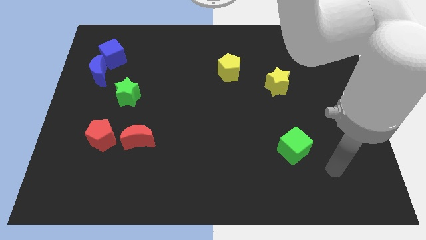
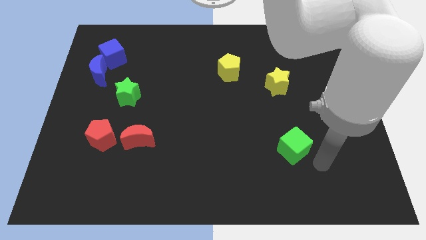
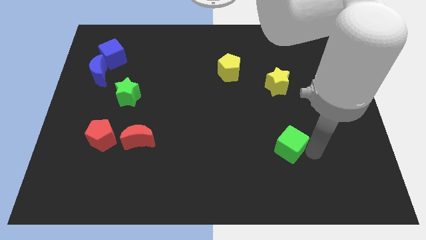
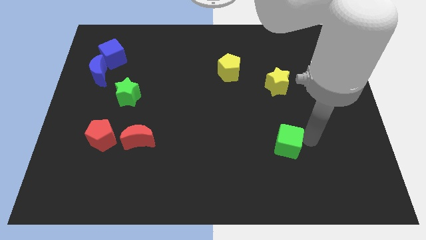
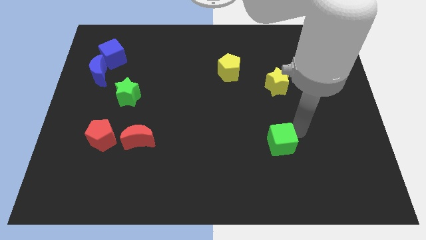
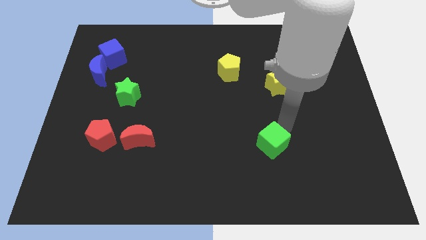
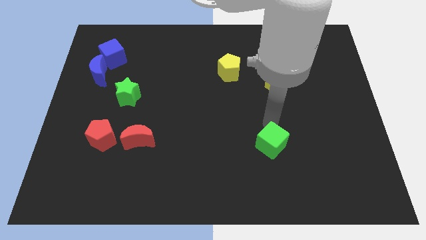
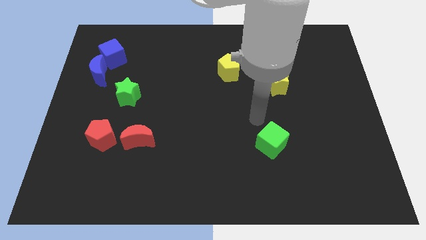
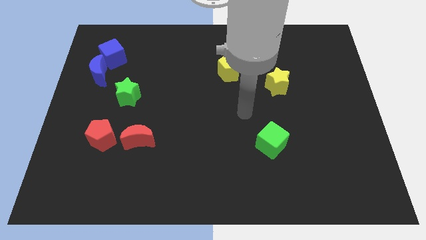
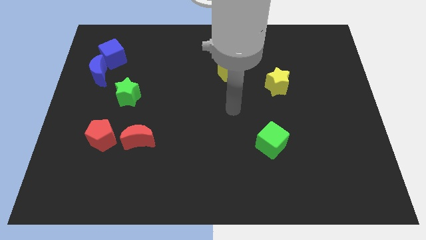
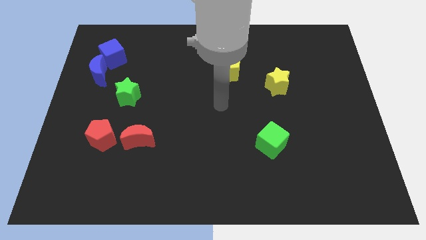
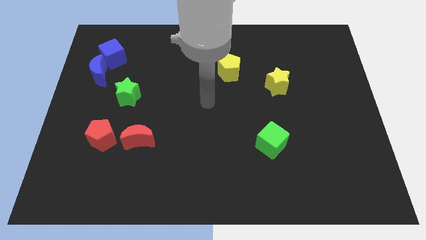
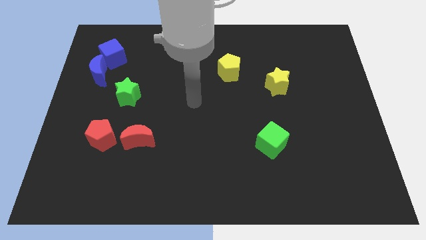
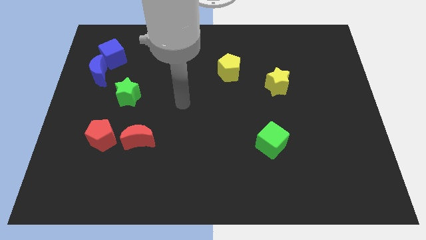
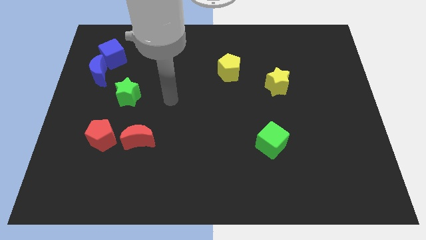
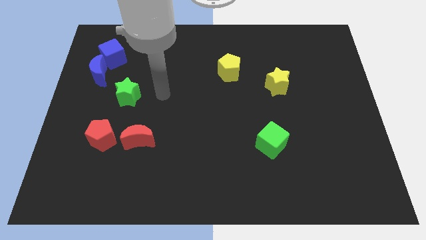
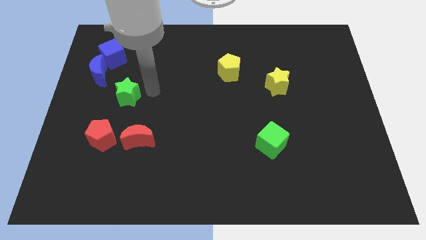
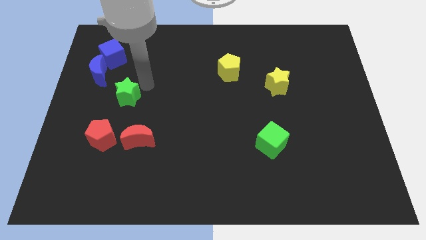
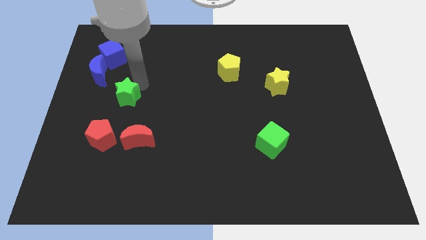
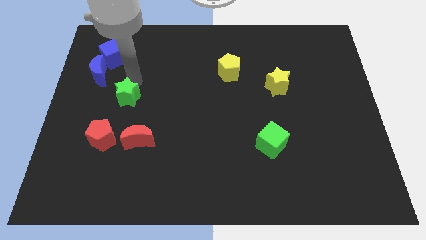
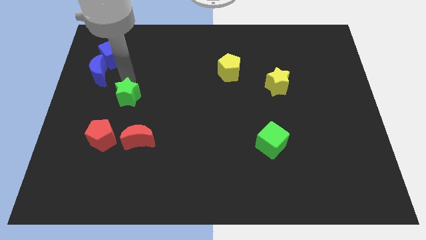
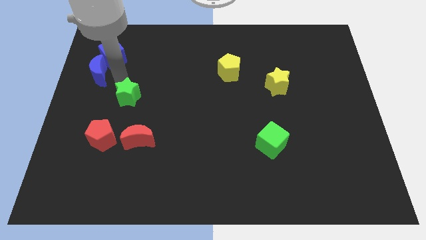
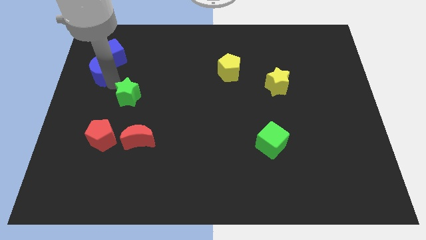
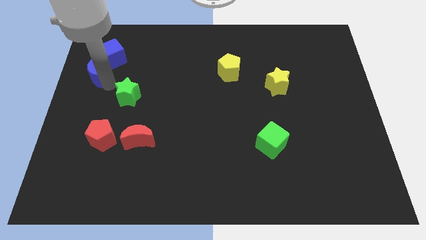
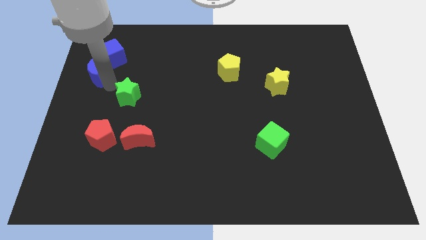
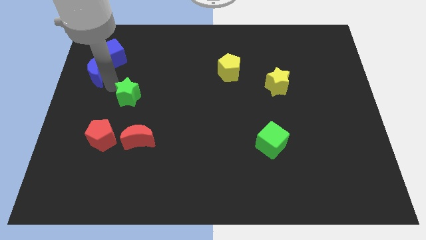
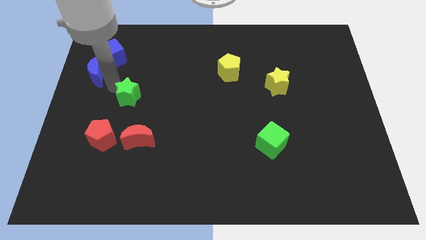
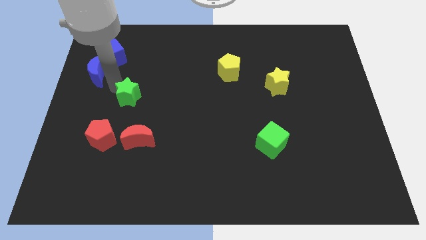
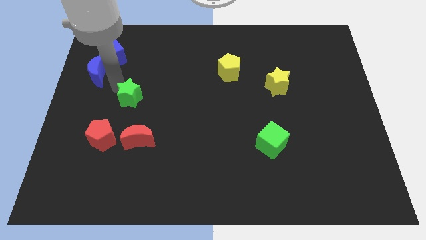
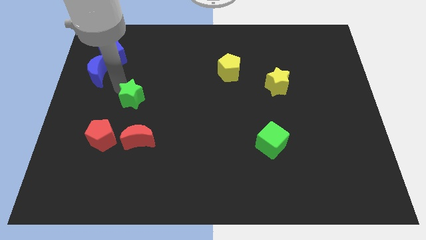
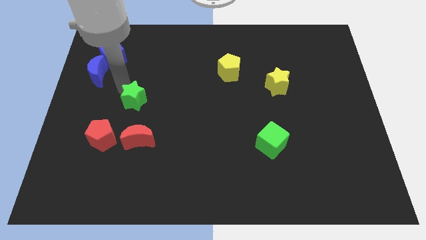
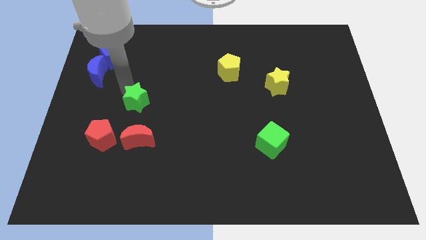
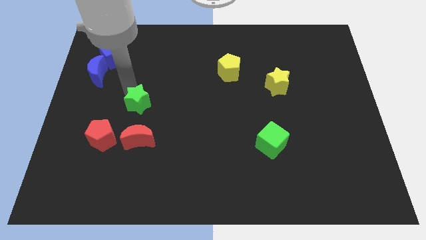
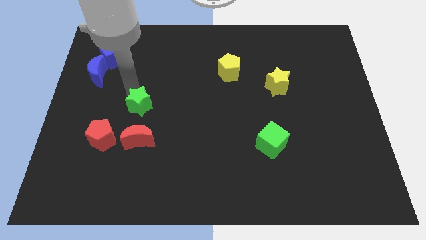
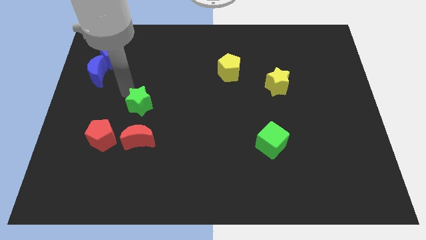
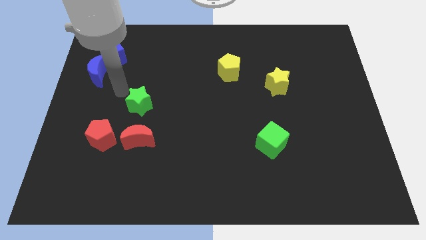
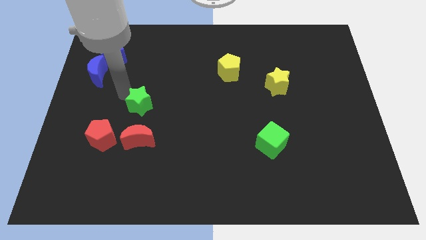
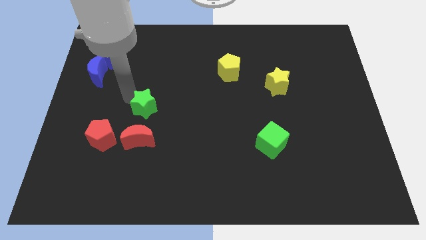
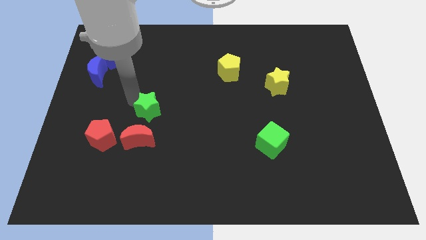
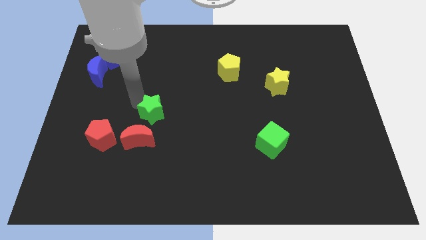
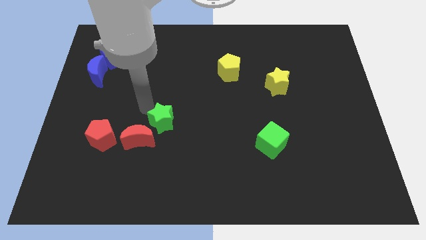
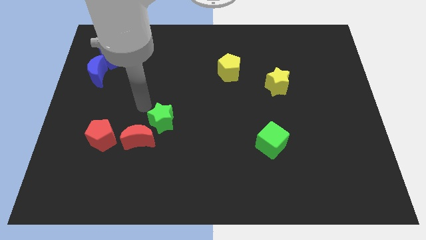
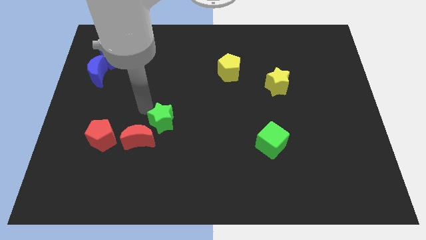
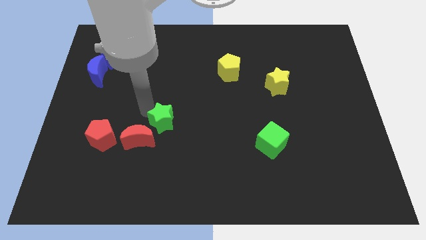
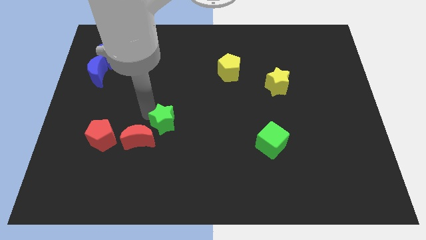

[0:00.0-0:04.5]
put the green star to the right of the red moon

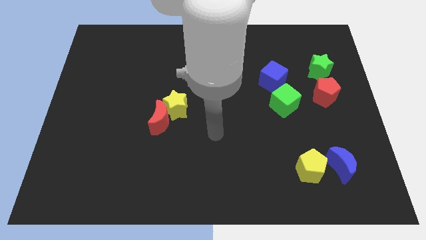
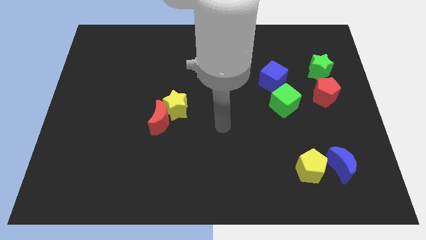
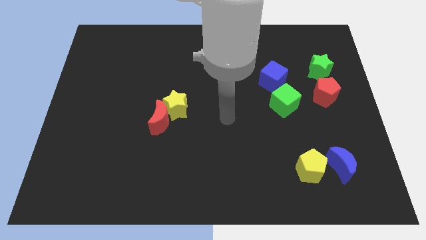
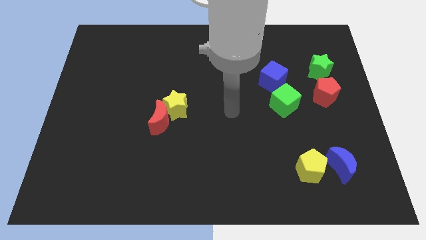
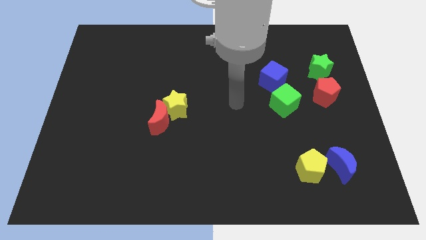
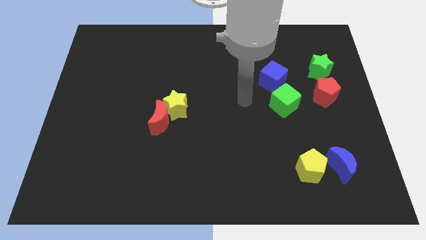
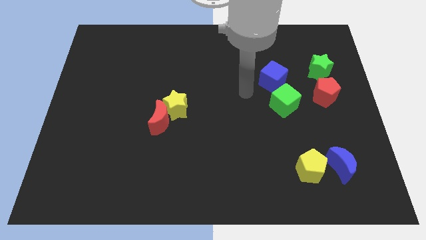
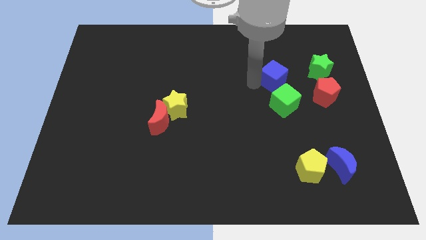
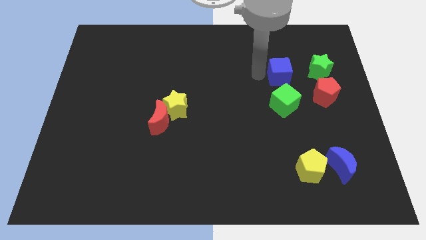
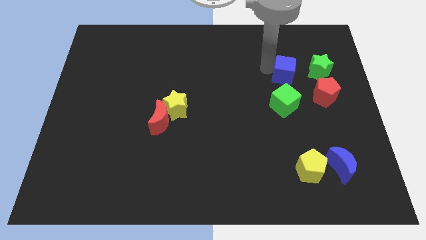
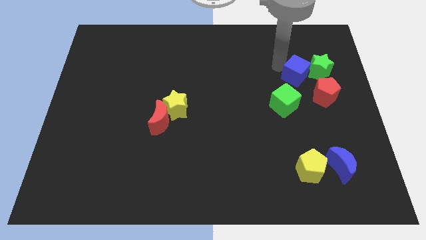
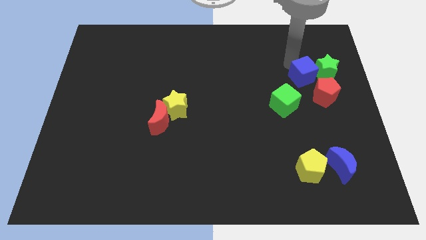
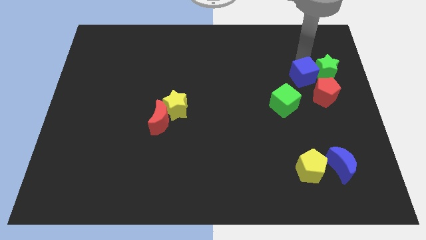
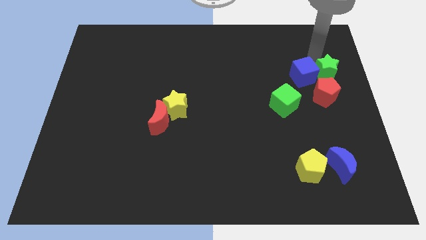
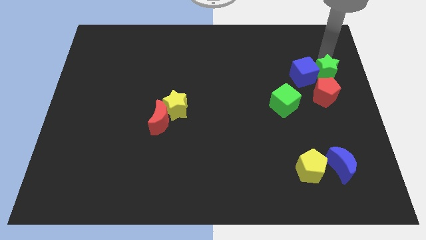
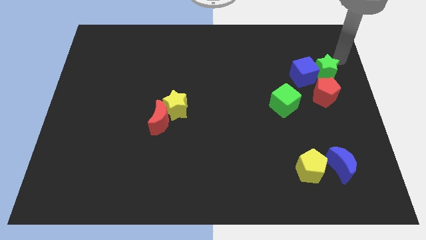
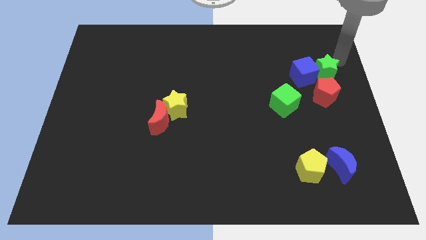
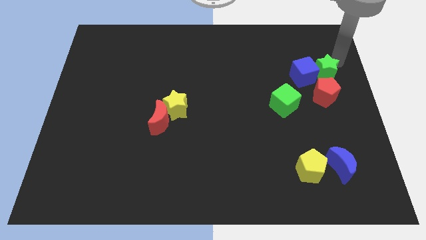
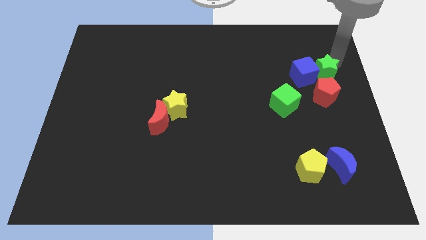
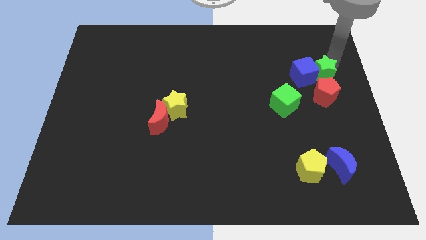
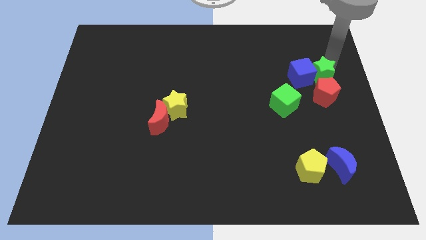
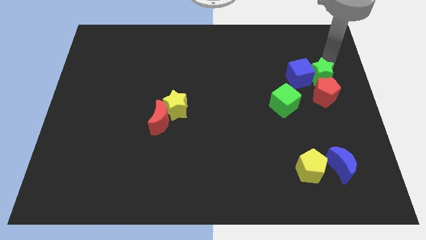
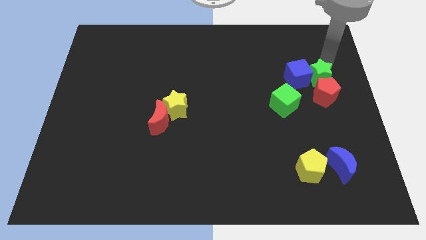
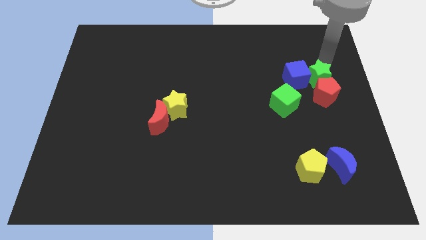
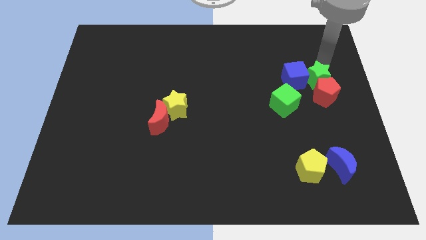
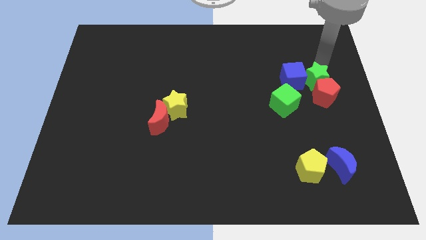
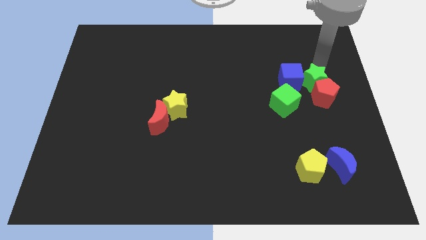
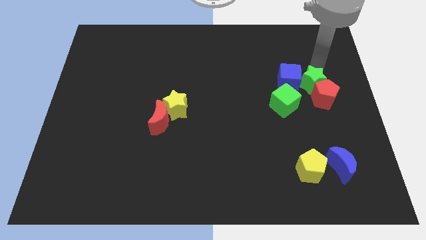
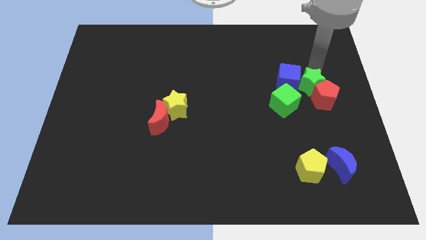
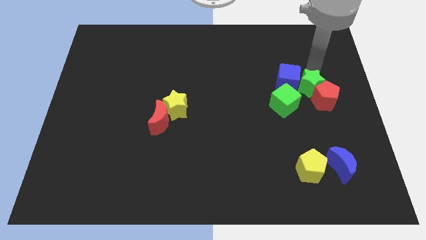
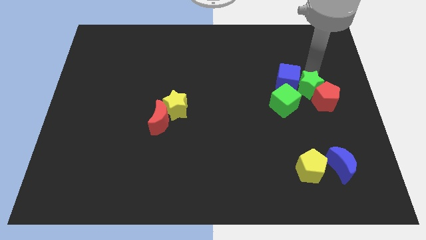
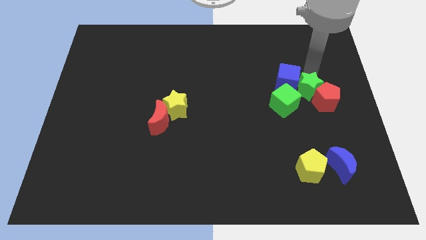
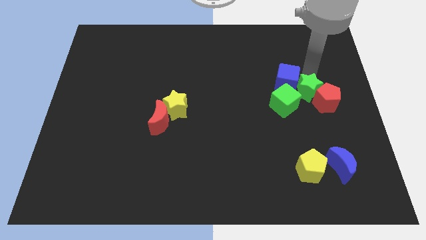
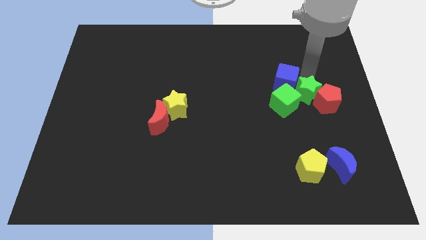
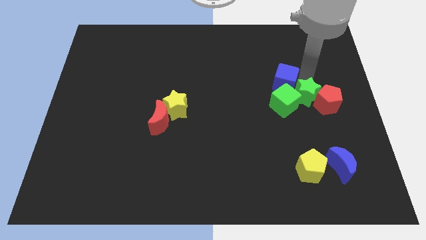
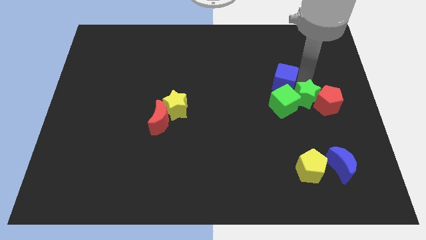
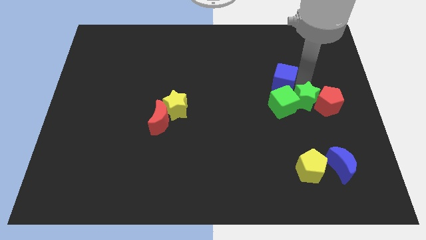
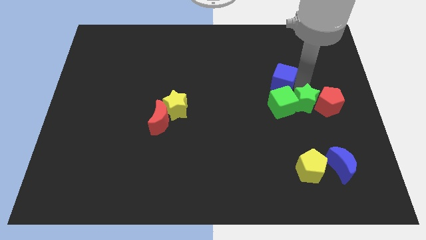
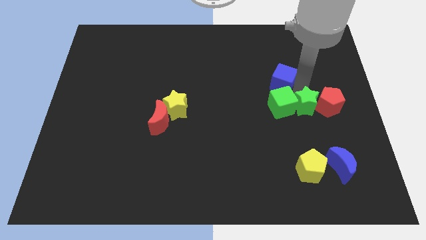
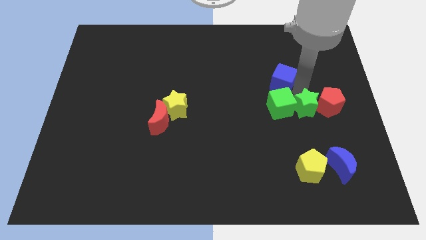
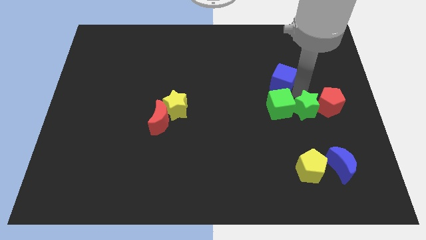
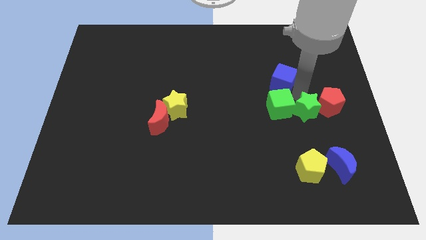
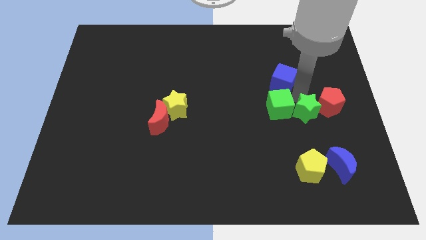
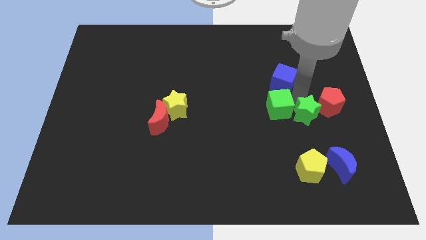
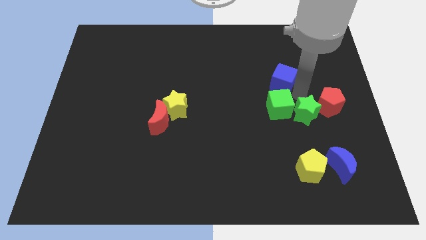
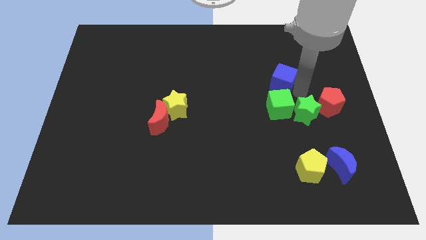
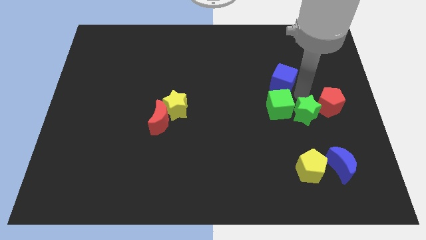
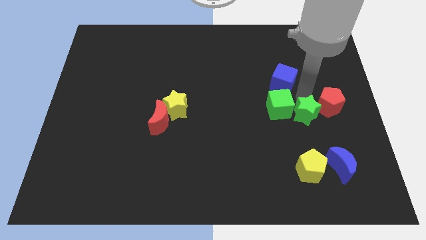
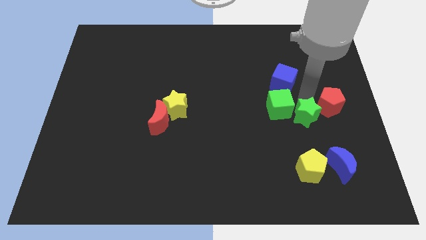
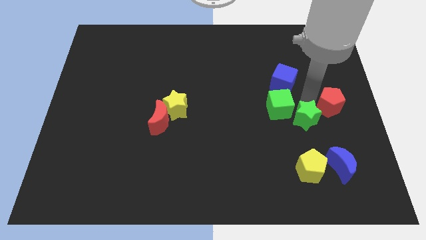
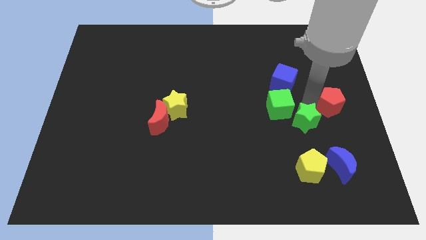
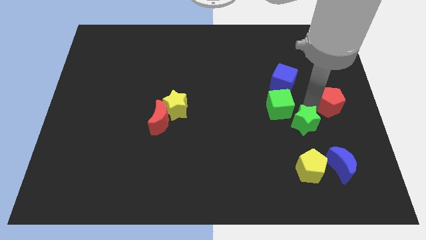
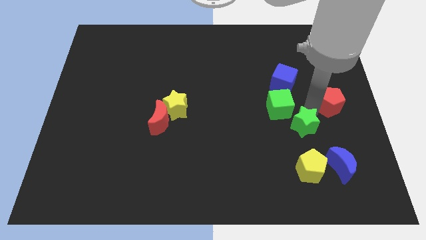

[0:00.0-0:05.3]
push the green star diagonally up and to the left of the blue moon
